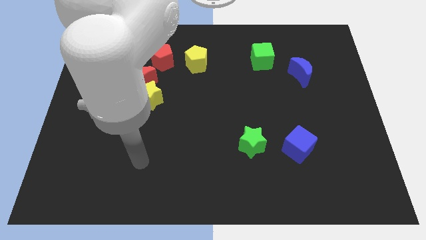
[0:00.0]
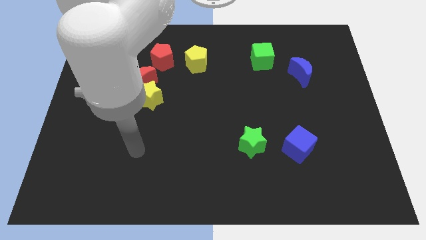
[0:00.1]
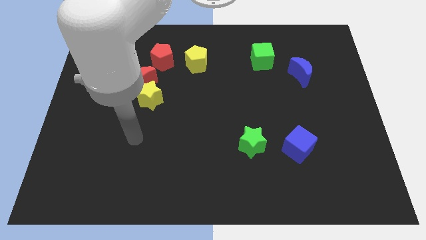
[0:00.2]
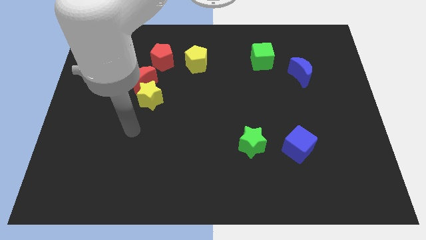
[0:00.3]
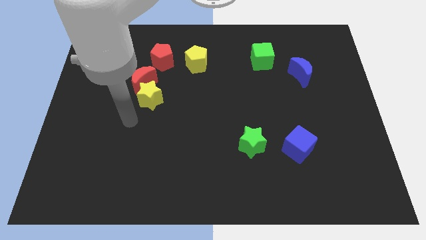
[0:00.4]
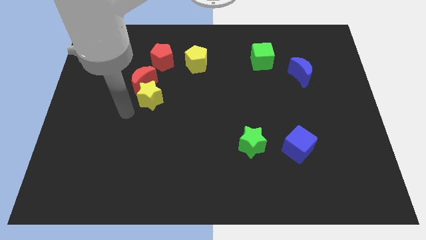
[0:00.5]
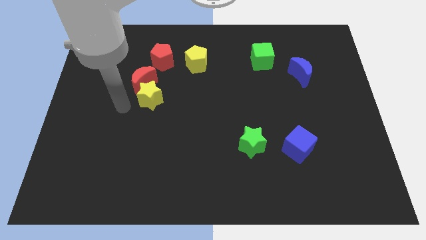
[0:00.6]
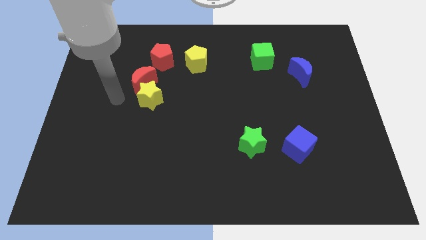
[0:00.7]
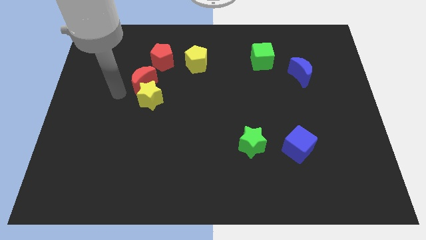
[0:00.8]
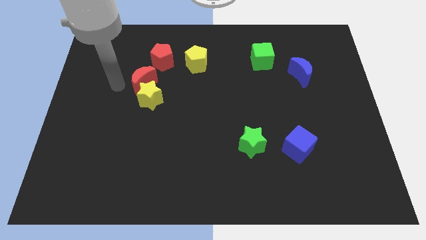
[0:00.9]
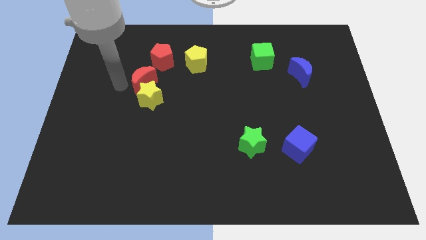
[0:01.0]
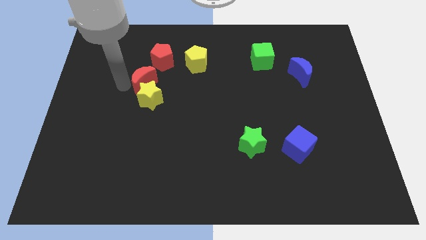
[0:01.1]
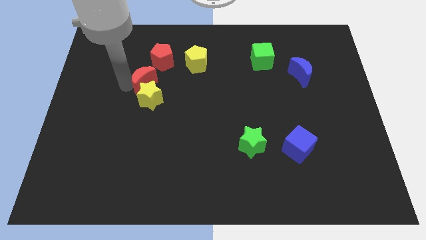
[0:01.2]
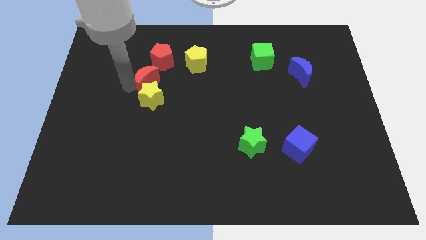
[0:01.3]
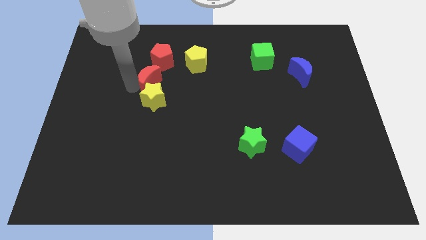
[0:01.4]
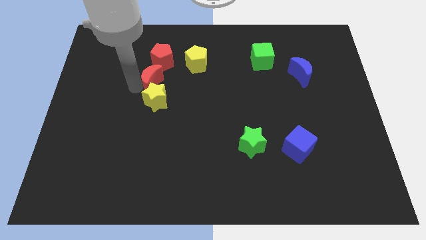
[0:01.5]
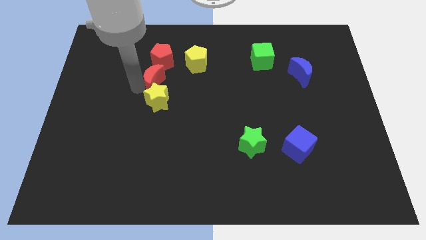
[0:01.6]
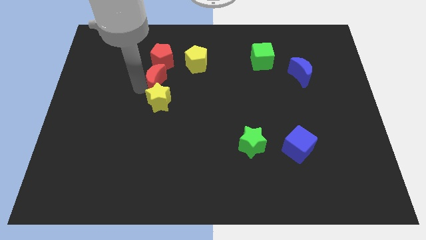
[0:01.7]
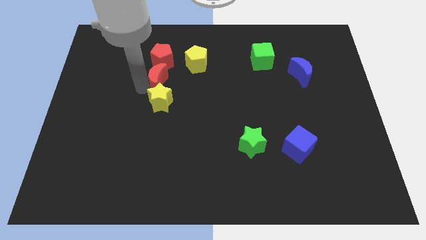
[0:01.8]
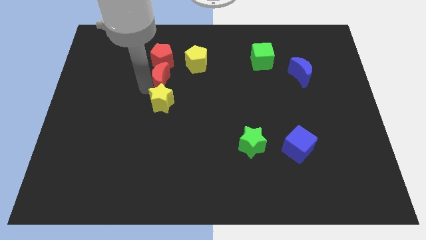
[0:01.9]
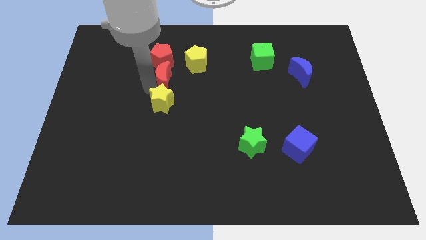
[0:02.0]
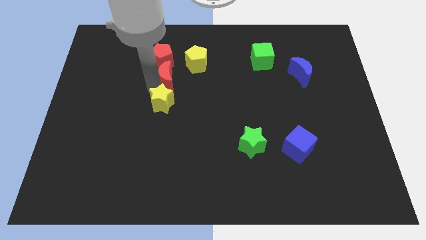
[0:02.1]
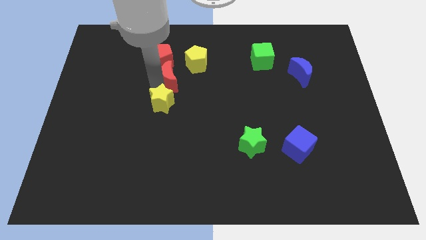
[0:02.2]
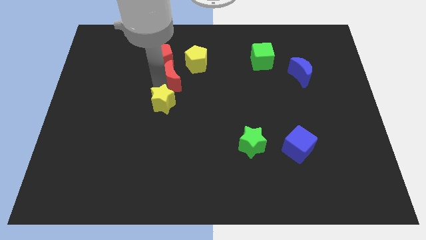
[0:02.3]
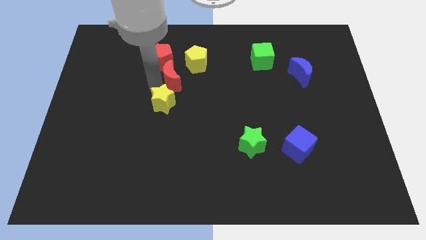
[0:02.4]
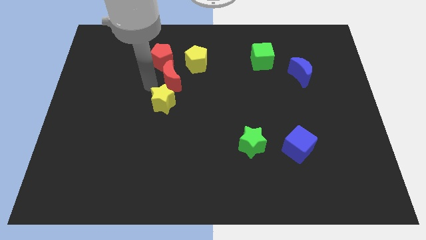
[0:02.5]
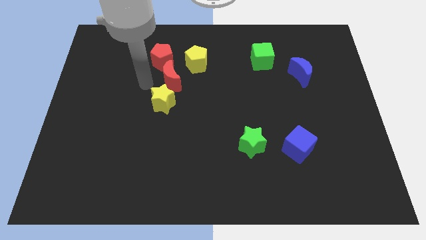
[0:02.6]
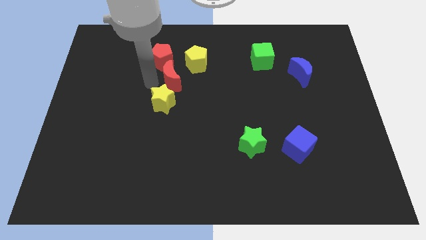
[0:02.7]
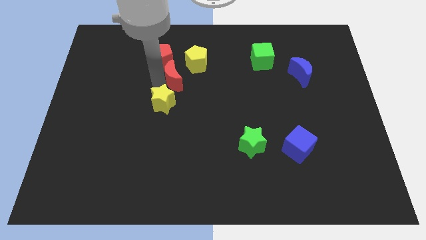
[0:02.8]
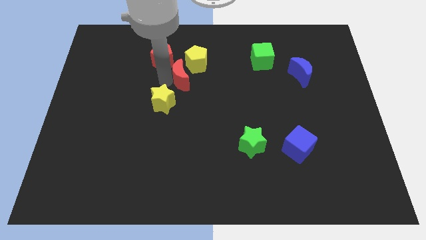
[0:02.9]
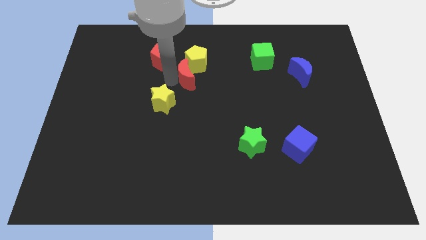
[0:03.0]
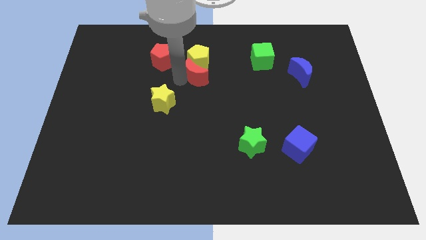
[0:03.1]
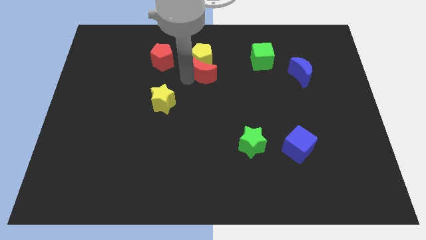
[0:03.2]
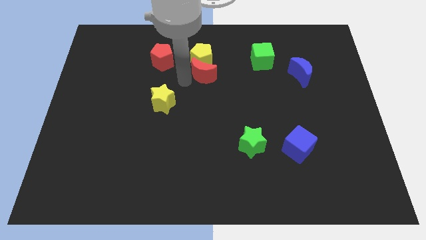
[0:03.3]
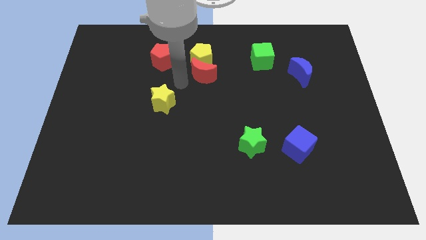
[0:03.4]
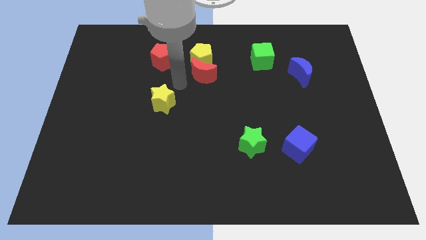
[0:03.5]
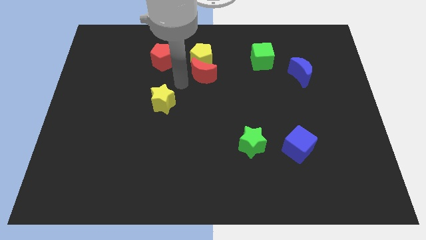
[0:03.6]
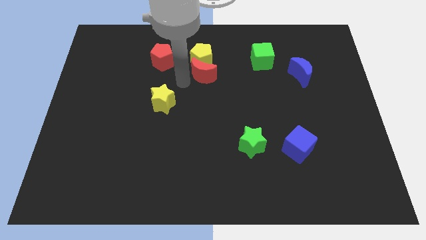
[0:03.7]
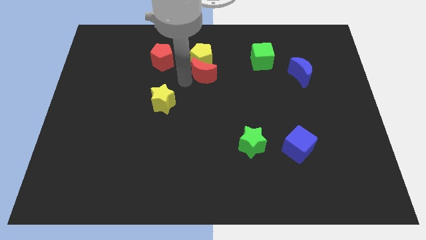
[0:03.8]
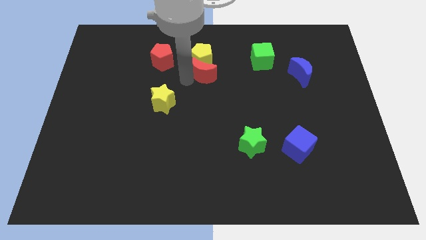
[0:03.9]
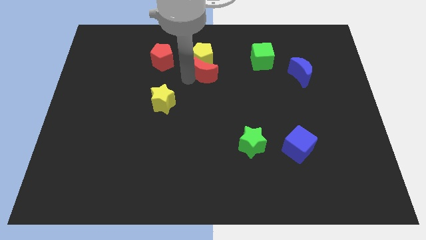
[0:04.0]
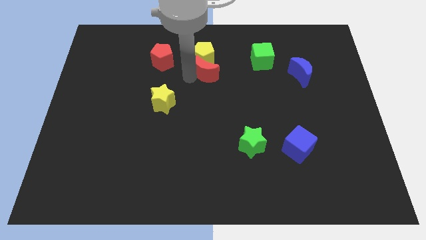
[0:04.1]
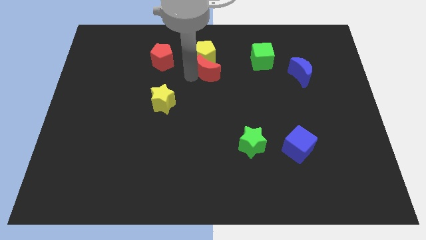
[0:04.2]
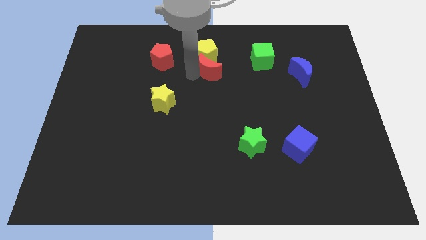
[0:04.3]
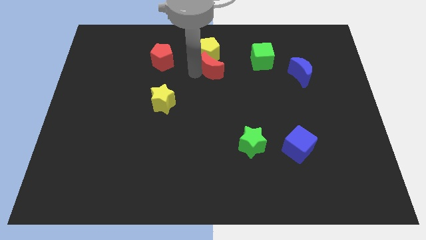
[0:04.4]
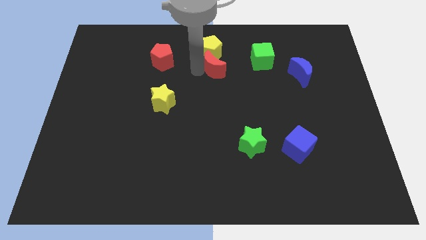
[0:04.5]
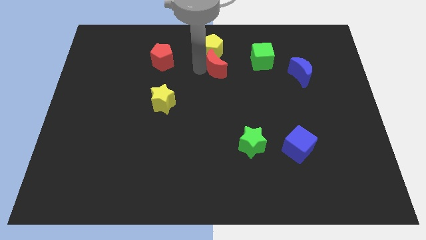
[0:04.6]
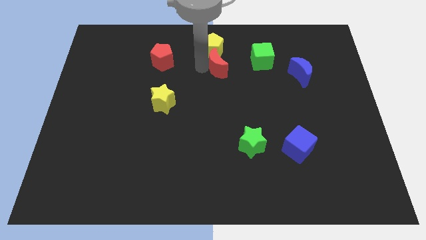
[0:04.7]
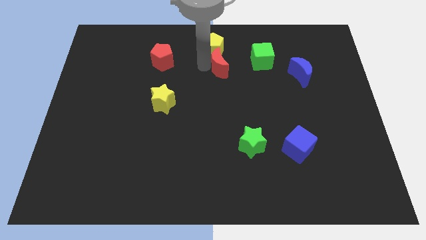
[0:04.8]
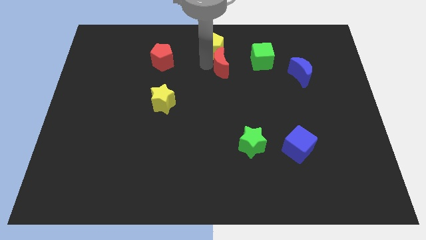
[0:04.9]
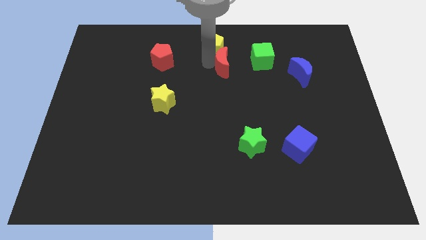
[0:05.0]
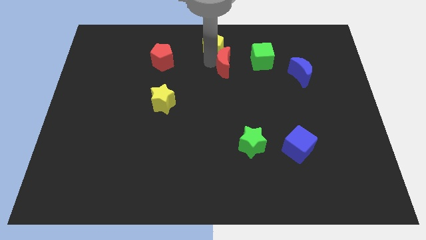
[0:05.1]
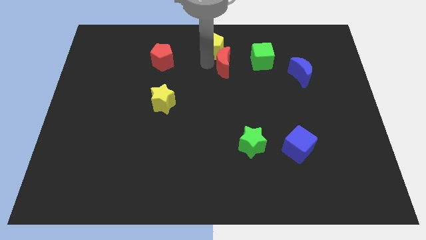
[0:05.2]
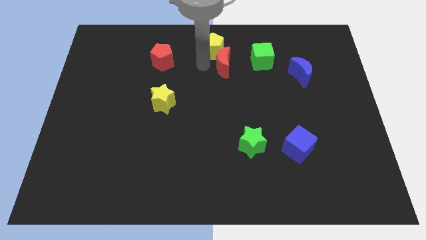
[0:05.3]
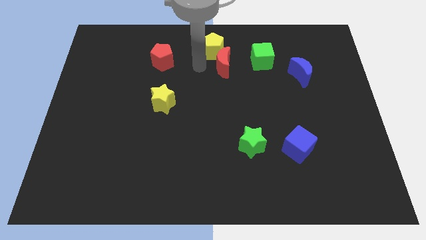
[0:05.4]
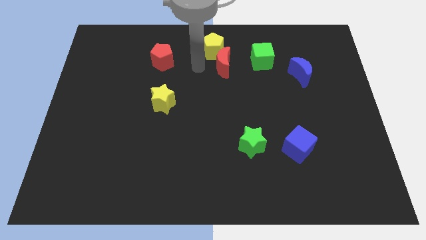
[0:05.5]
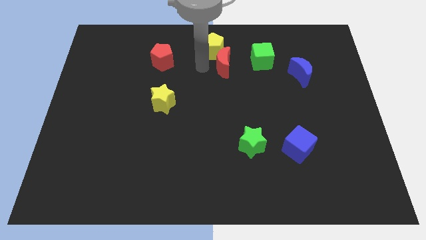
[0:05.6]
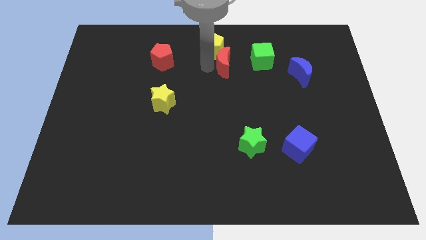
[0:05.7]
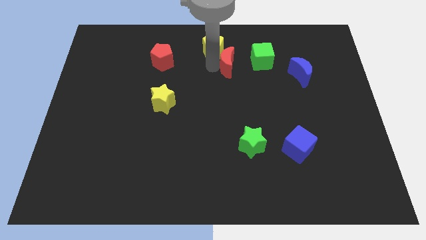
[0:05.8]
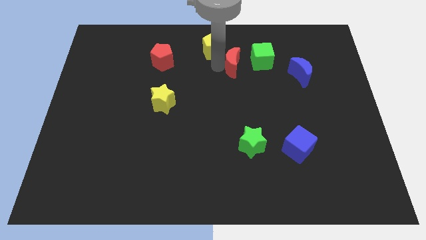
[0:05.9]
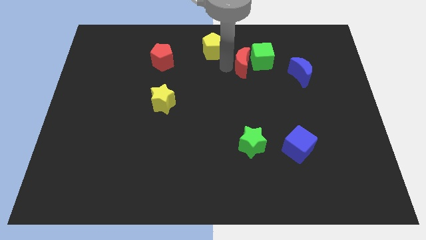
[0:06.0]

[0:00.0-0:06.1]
put the red moon close to the green cube

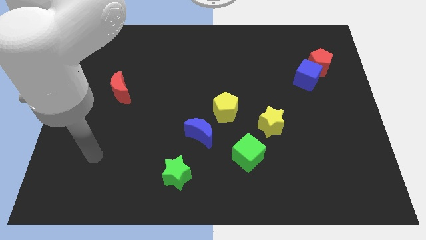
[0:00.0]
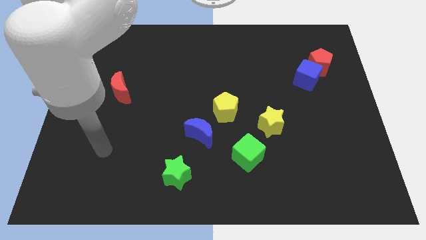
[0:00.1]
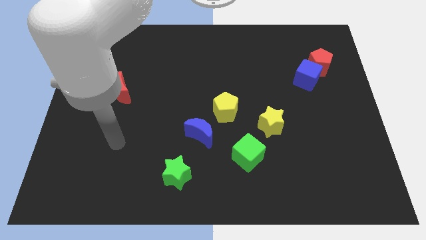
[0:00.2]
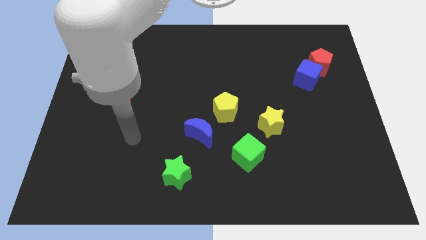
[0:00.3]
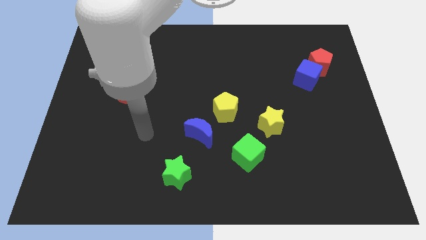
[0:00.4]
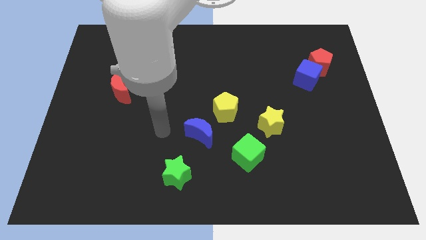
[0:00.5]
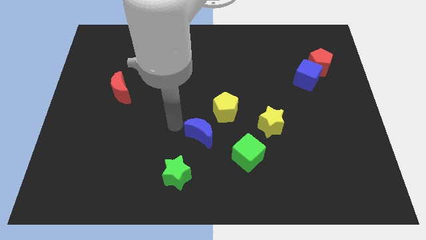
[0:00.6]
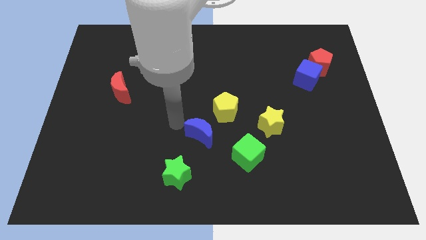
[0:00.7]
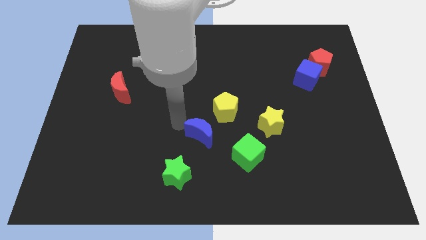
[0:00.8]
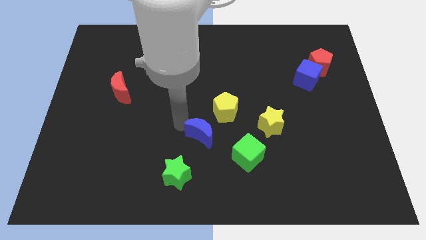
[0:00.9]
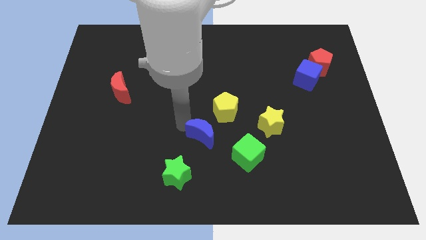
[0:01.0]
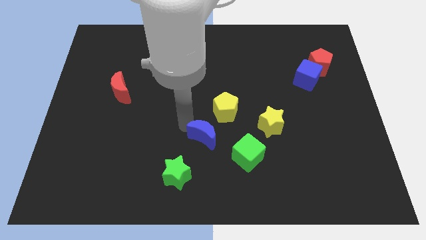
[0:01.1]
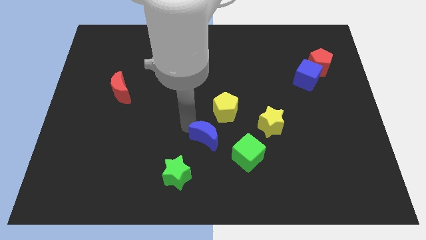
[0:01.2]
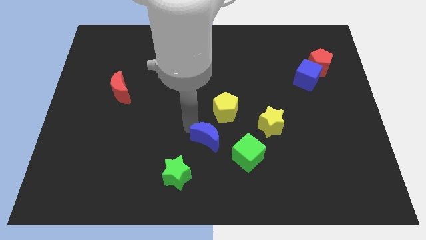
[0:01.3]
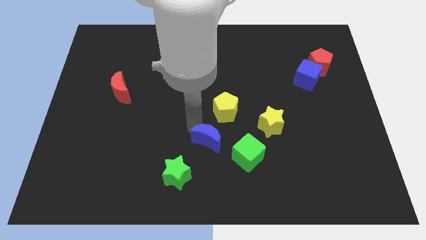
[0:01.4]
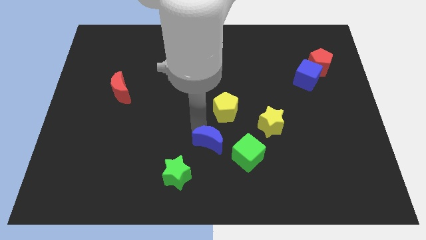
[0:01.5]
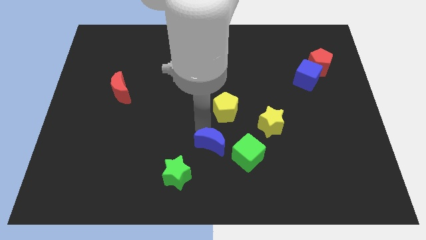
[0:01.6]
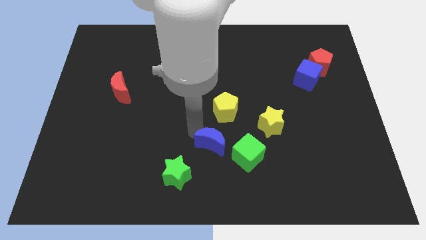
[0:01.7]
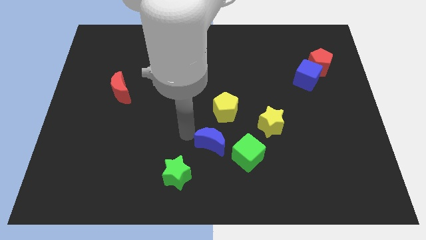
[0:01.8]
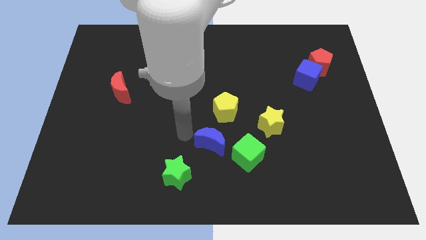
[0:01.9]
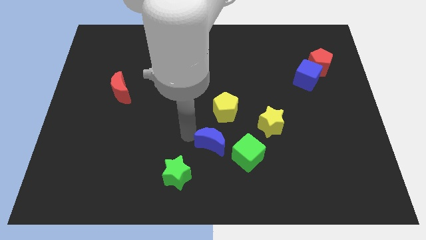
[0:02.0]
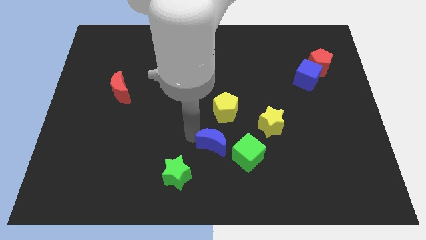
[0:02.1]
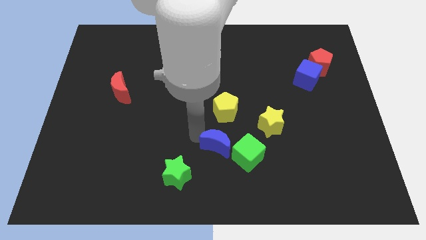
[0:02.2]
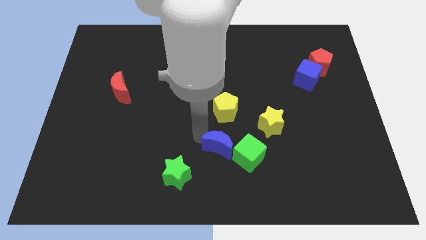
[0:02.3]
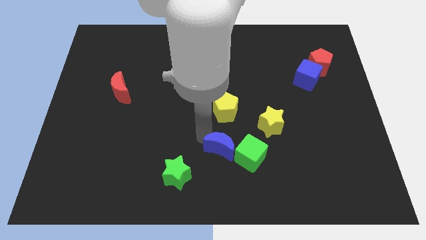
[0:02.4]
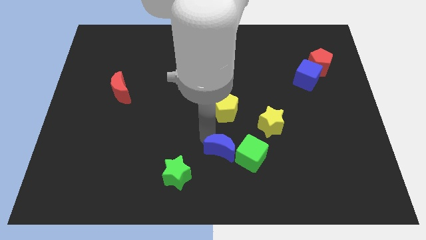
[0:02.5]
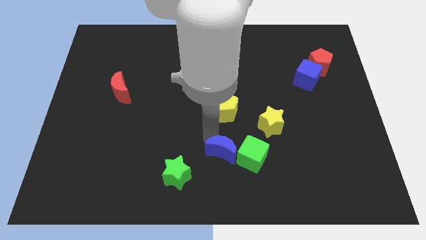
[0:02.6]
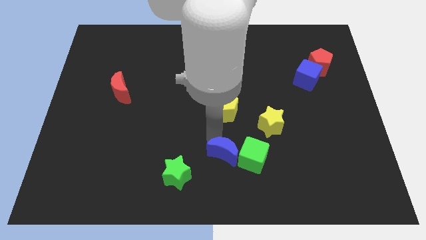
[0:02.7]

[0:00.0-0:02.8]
push the blue moon close to the green cube
